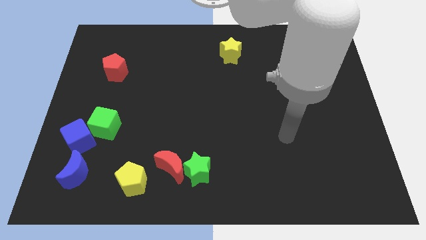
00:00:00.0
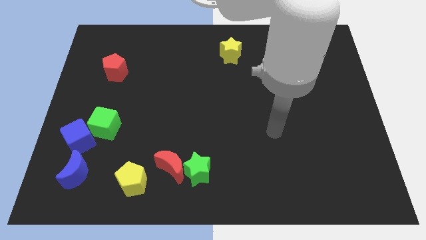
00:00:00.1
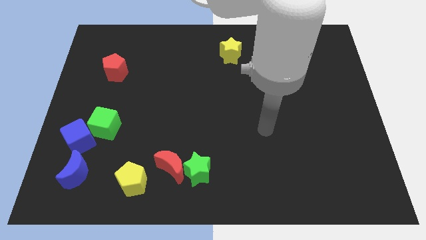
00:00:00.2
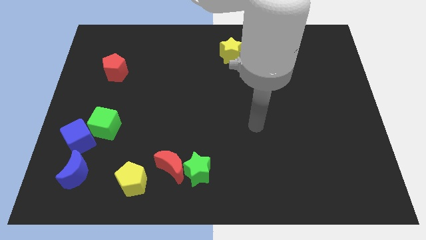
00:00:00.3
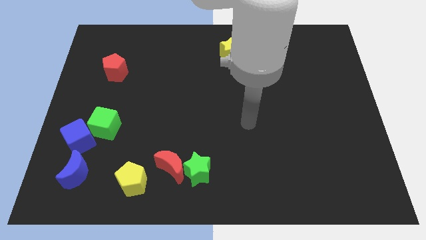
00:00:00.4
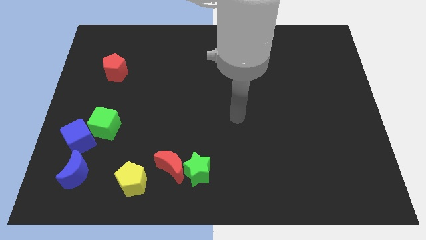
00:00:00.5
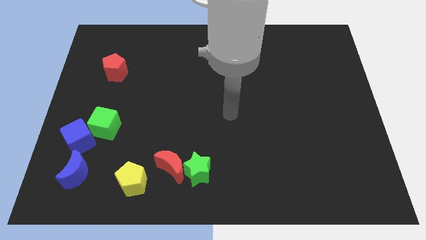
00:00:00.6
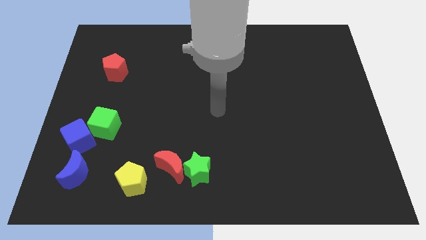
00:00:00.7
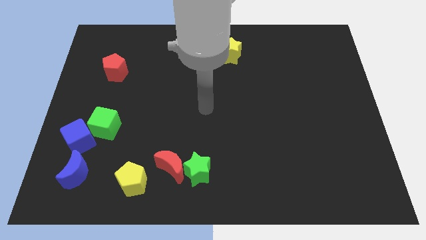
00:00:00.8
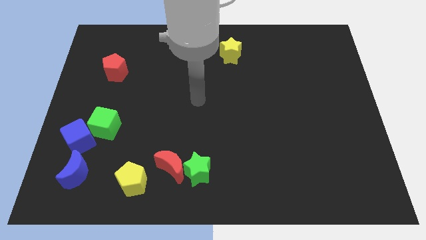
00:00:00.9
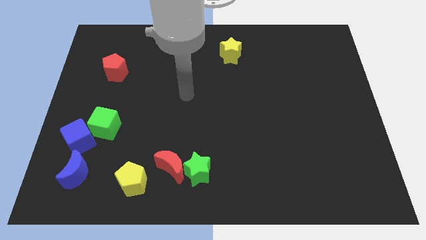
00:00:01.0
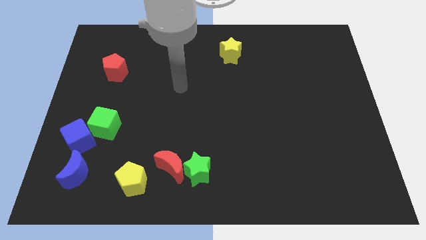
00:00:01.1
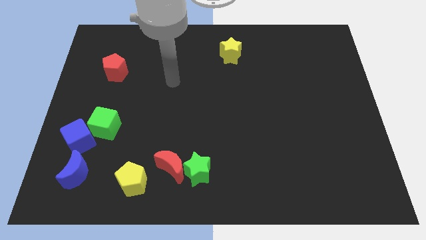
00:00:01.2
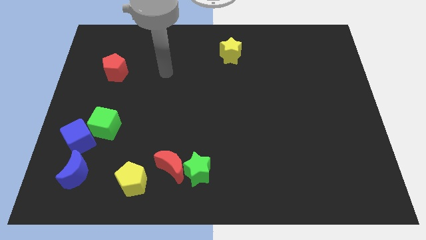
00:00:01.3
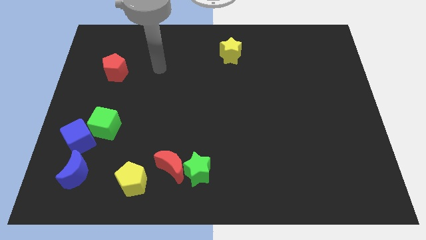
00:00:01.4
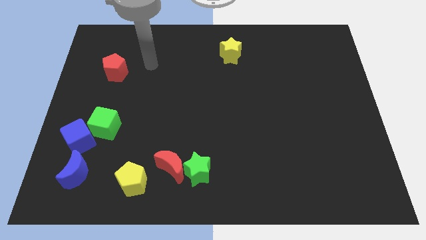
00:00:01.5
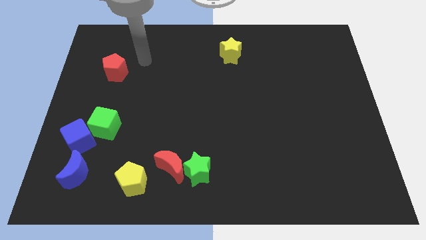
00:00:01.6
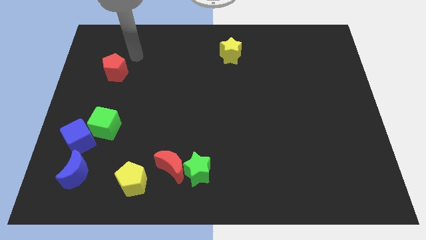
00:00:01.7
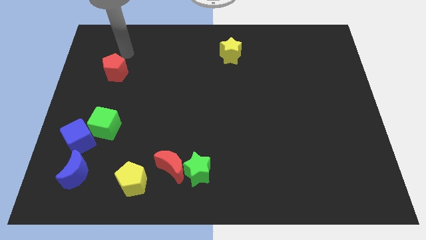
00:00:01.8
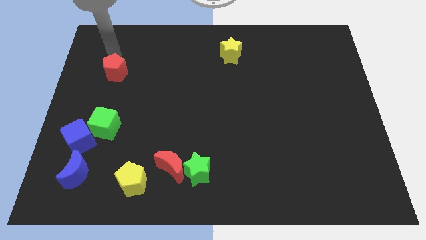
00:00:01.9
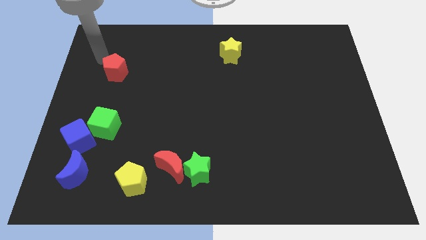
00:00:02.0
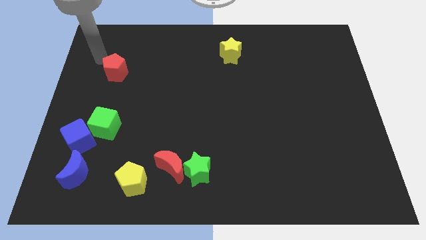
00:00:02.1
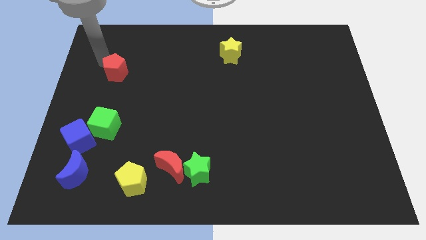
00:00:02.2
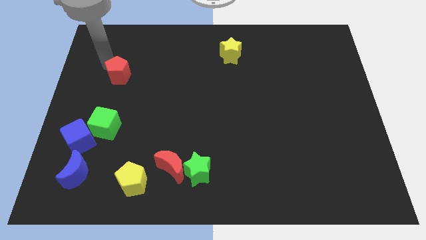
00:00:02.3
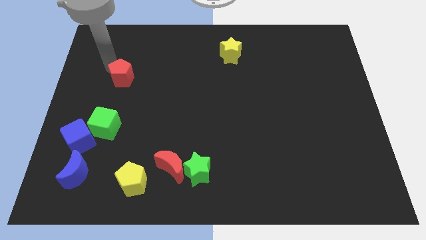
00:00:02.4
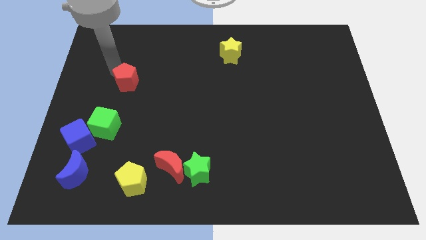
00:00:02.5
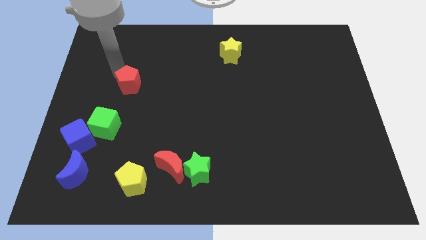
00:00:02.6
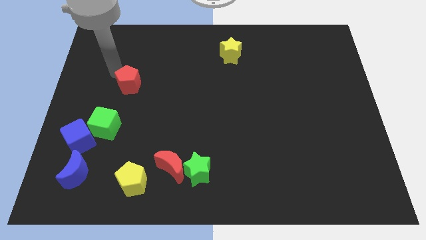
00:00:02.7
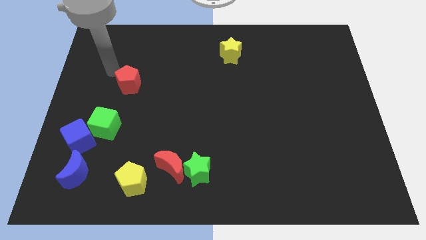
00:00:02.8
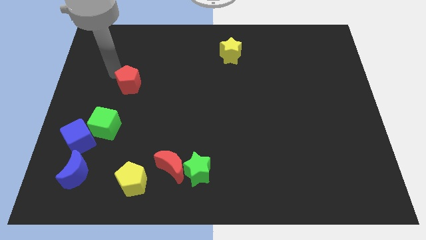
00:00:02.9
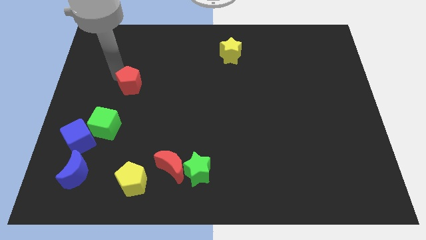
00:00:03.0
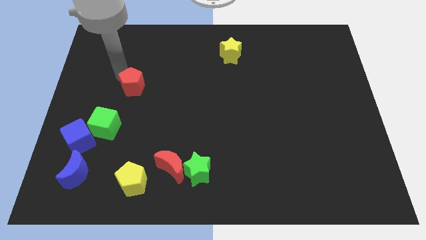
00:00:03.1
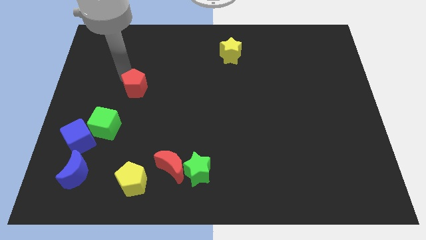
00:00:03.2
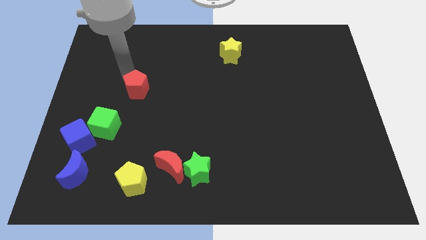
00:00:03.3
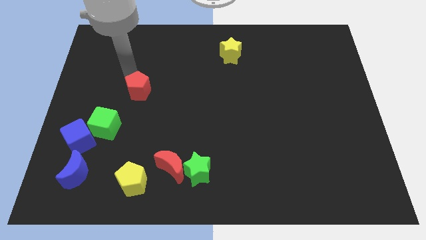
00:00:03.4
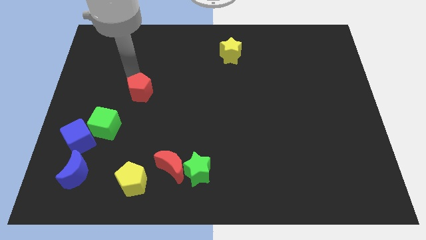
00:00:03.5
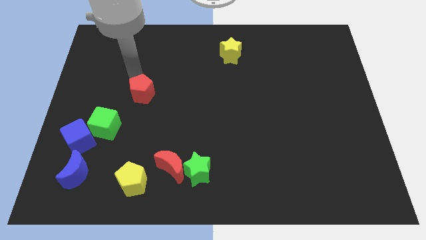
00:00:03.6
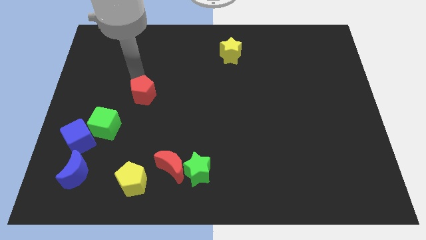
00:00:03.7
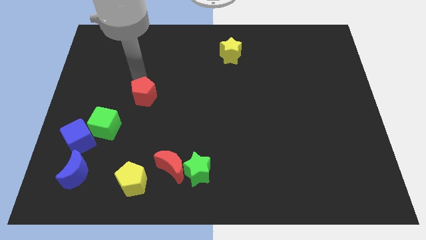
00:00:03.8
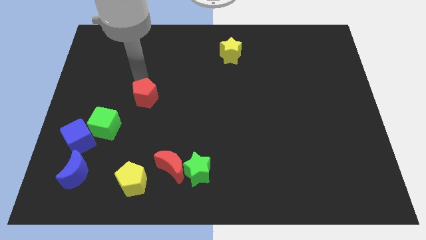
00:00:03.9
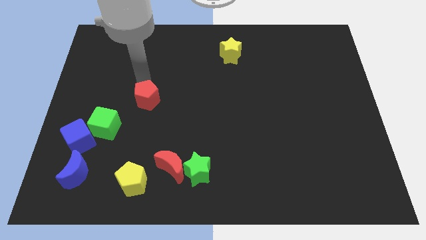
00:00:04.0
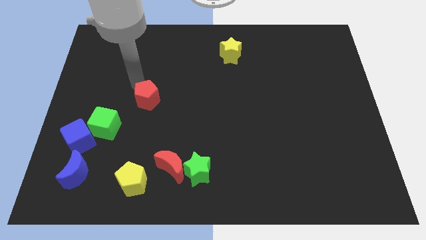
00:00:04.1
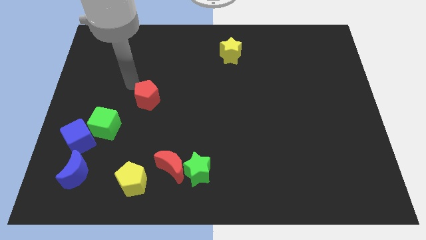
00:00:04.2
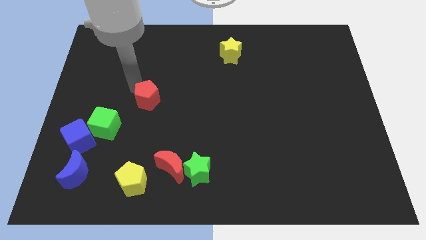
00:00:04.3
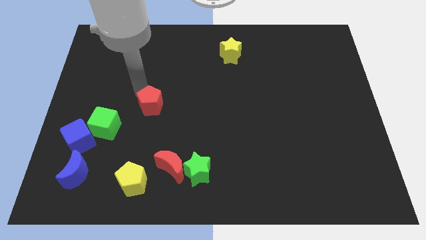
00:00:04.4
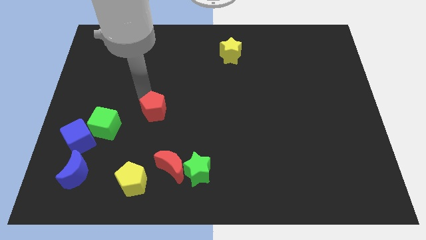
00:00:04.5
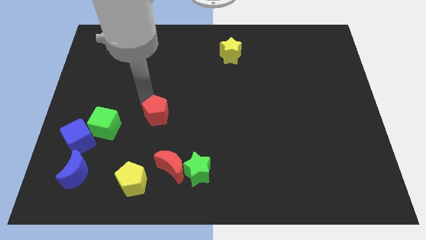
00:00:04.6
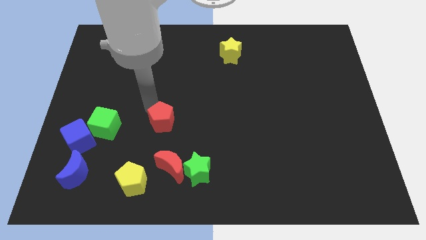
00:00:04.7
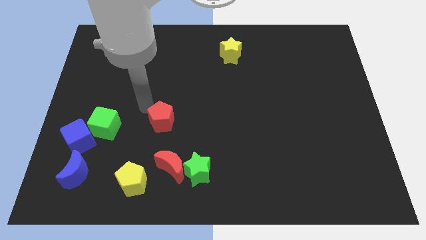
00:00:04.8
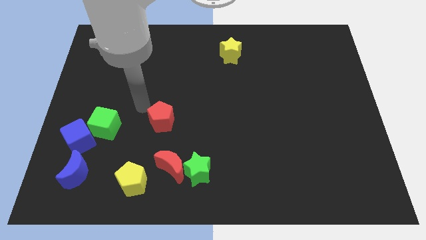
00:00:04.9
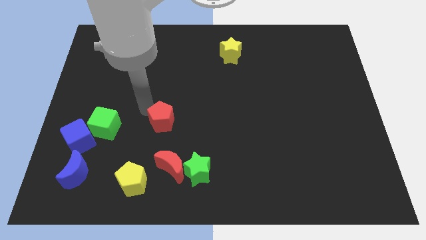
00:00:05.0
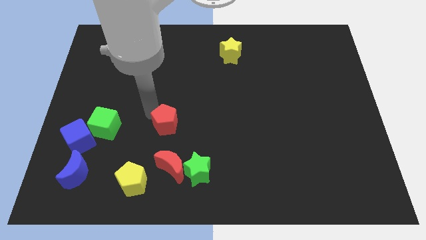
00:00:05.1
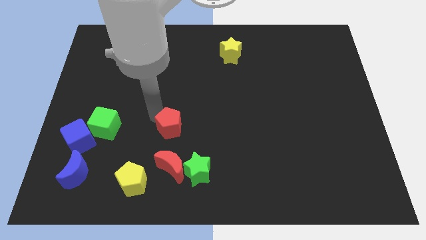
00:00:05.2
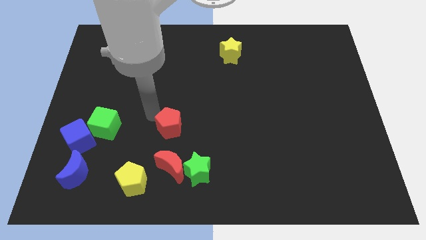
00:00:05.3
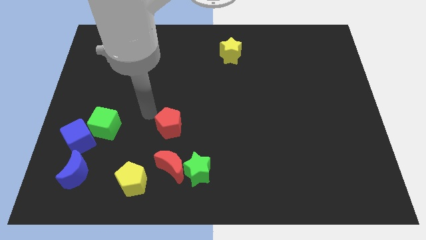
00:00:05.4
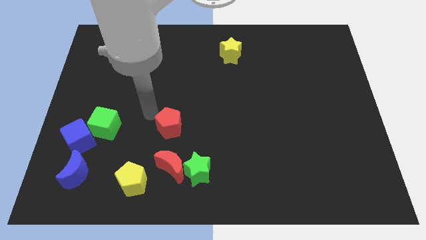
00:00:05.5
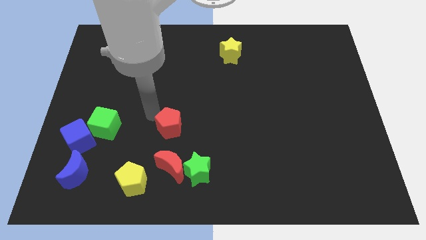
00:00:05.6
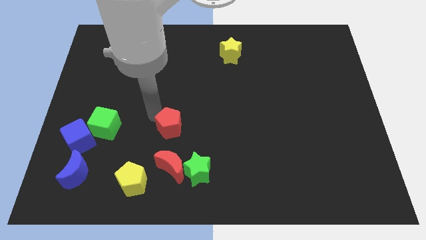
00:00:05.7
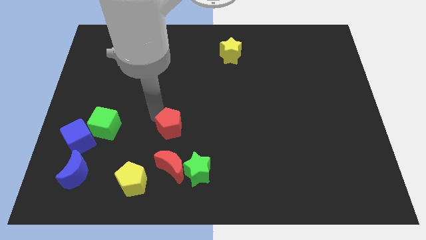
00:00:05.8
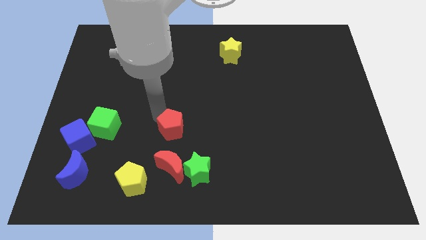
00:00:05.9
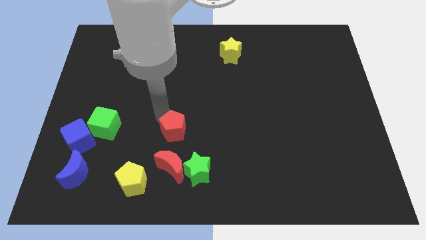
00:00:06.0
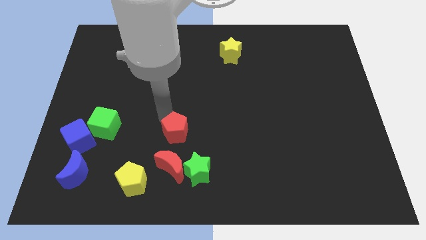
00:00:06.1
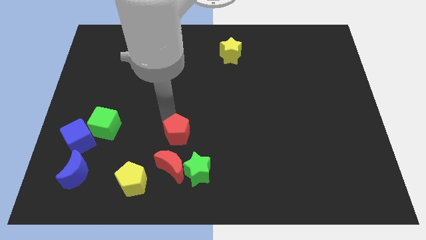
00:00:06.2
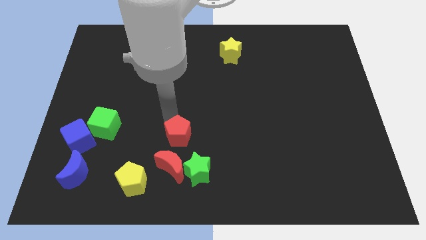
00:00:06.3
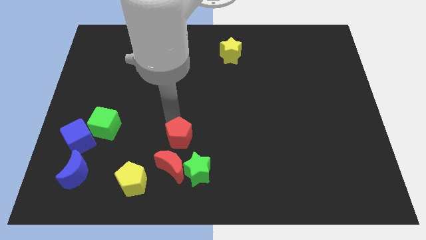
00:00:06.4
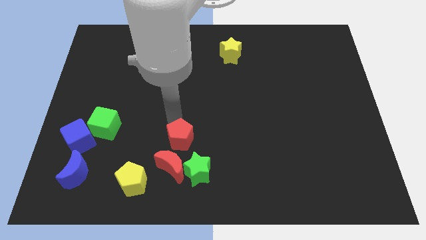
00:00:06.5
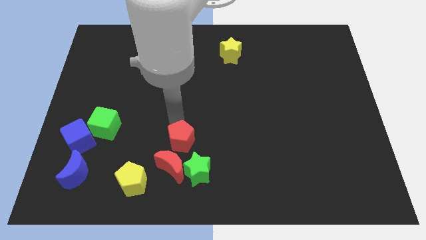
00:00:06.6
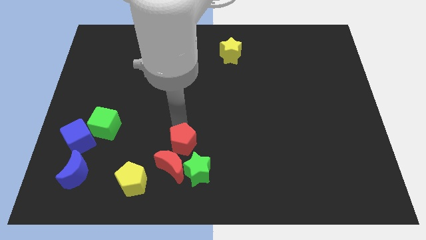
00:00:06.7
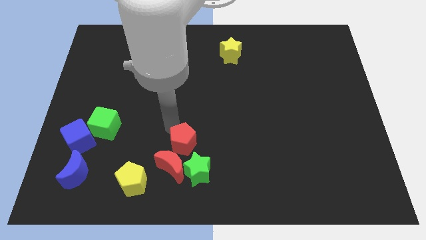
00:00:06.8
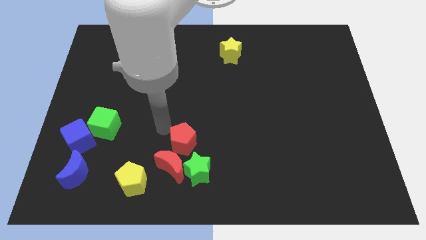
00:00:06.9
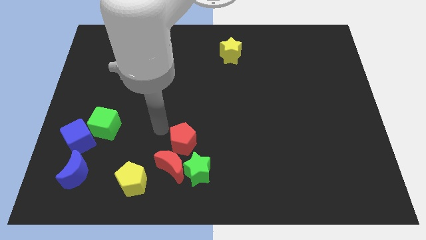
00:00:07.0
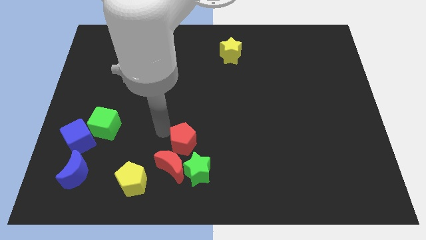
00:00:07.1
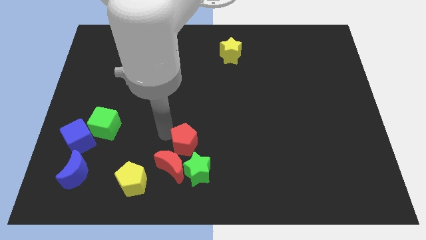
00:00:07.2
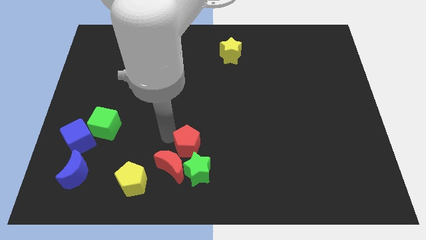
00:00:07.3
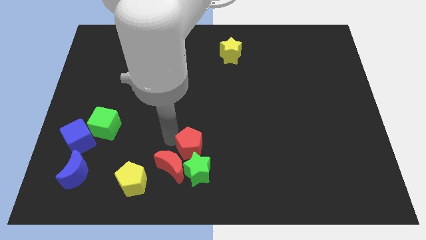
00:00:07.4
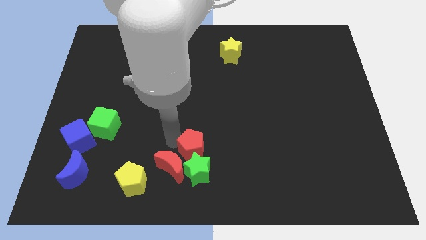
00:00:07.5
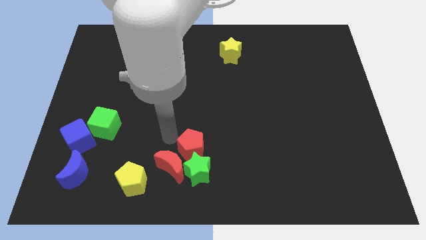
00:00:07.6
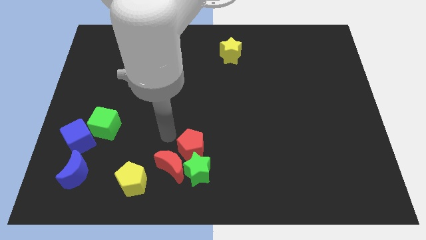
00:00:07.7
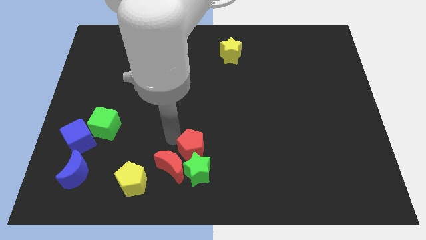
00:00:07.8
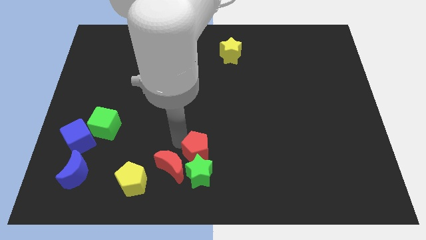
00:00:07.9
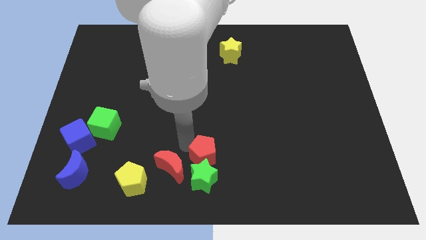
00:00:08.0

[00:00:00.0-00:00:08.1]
put the red pentagon to the bottom
